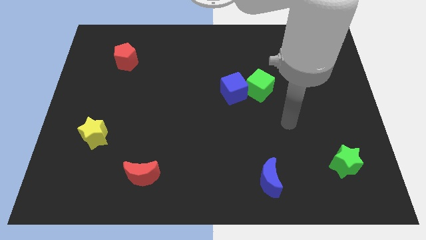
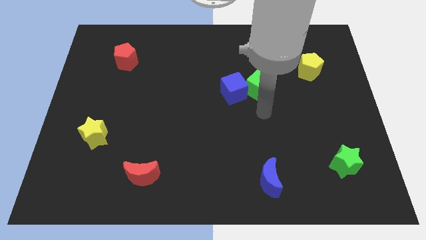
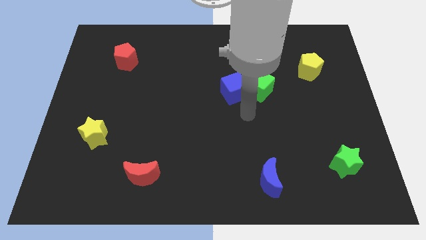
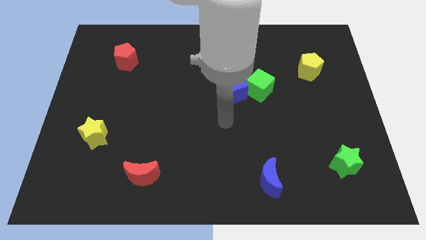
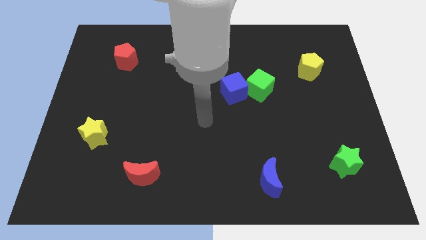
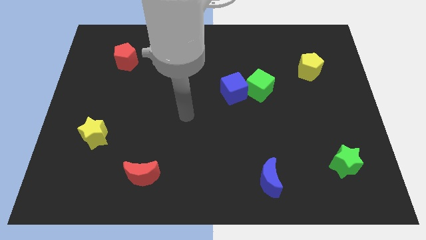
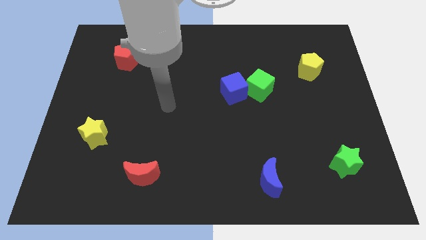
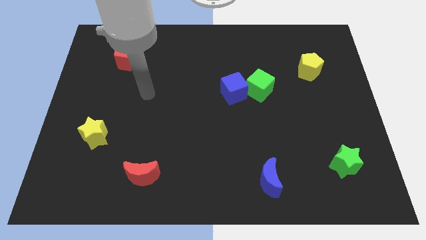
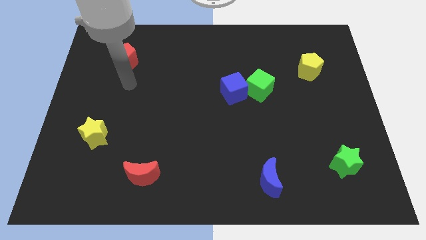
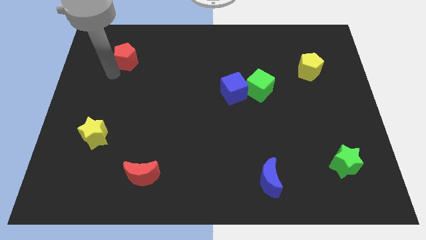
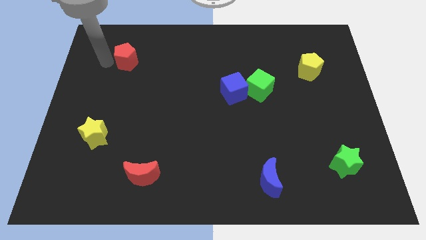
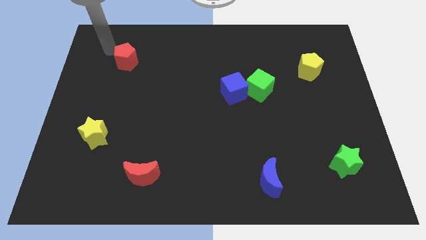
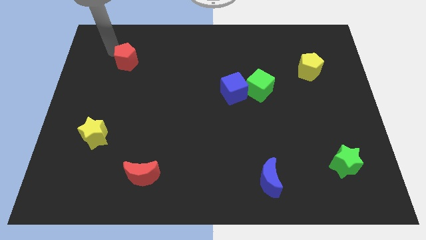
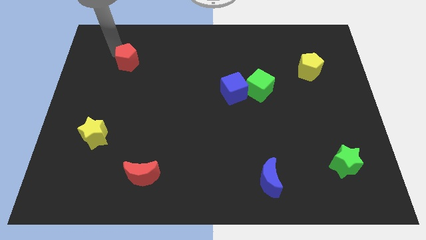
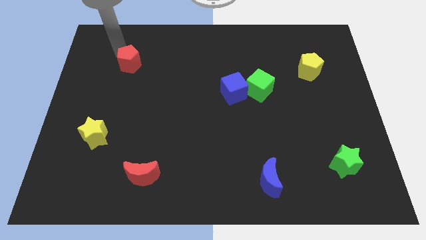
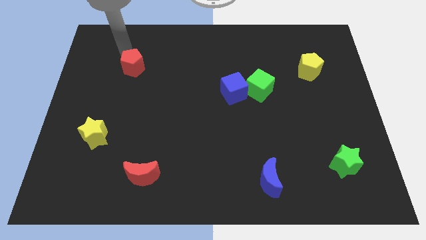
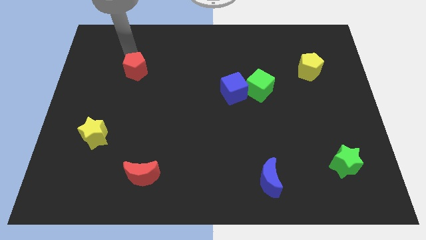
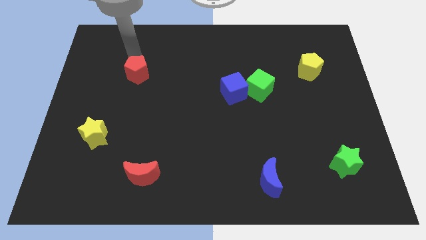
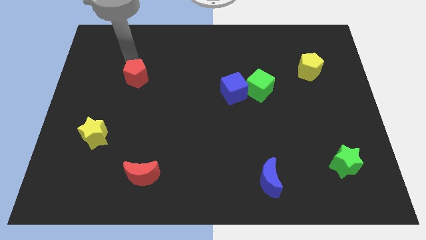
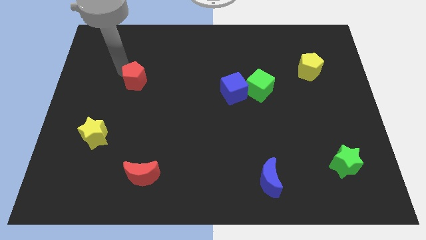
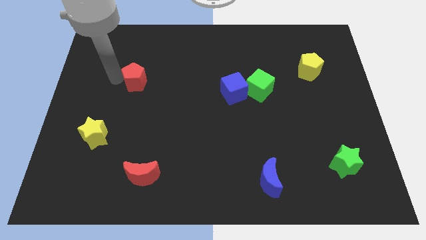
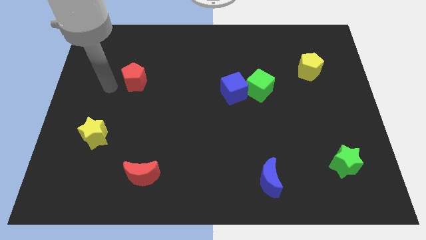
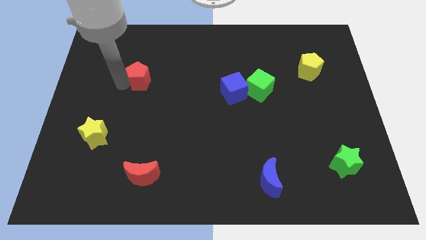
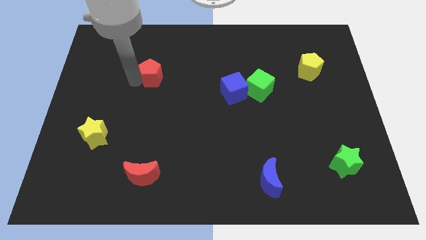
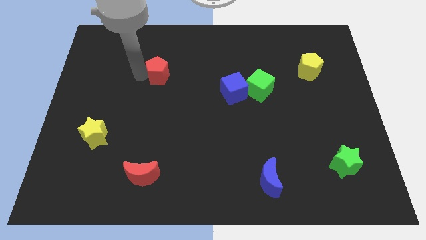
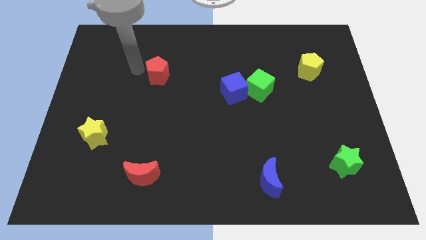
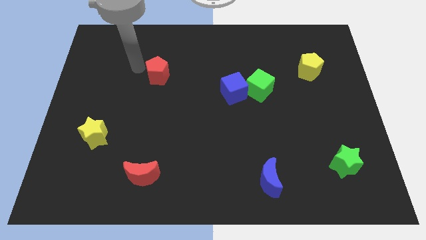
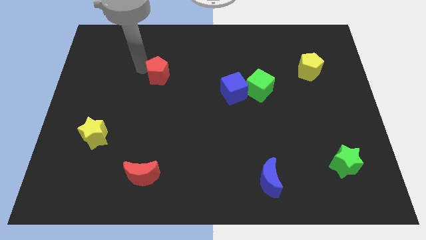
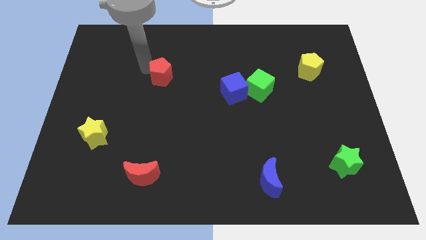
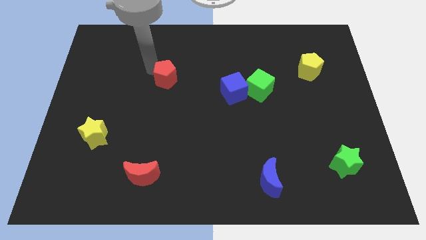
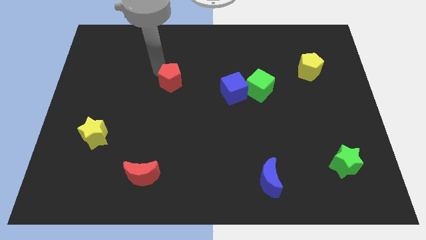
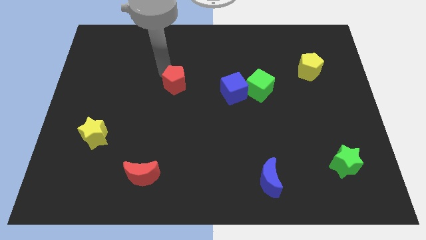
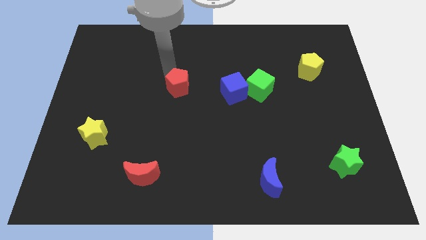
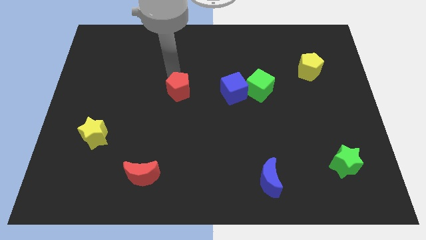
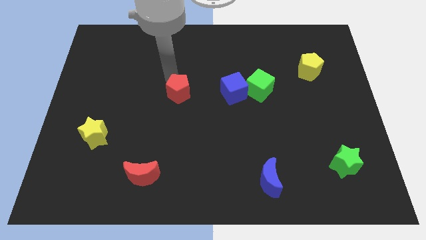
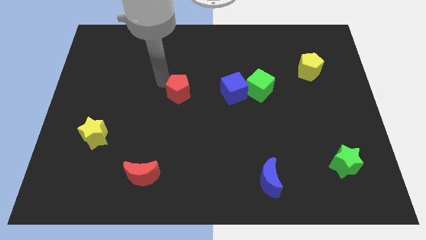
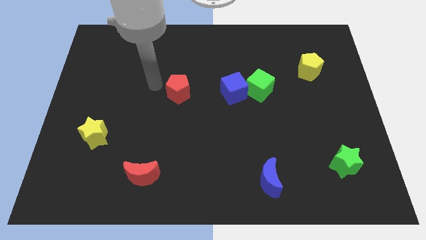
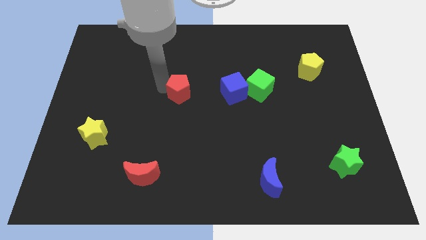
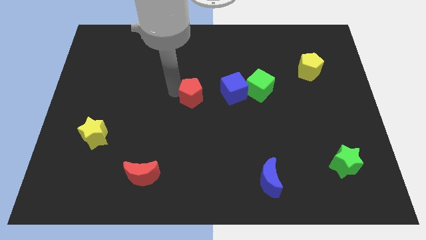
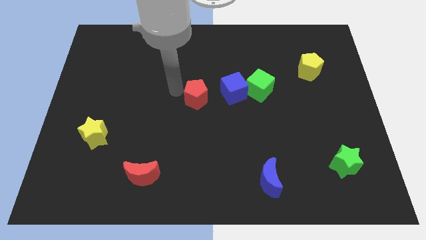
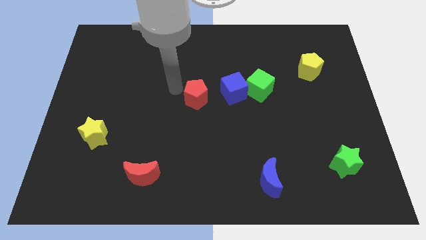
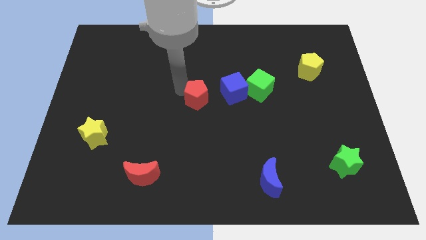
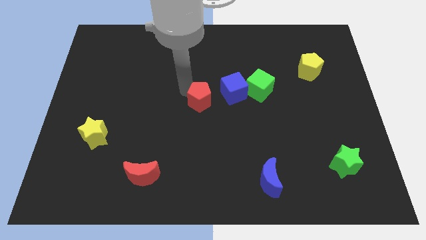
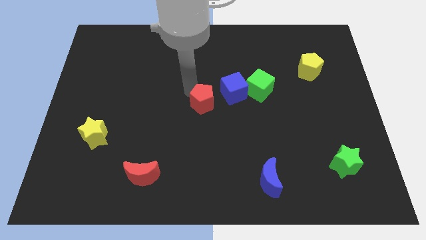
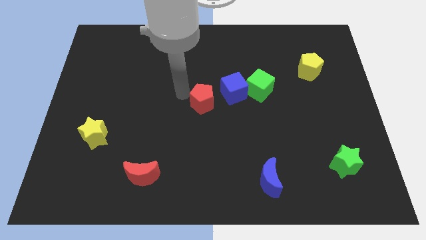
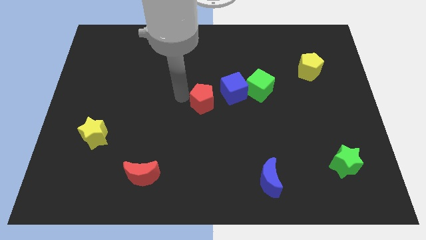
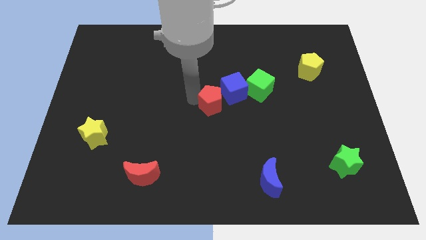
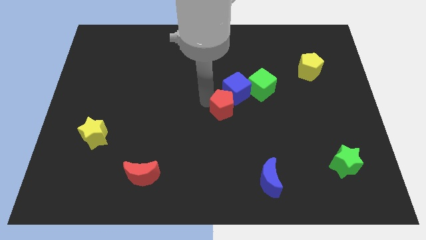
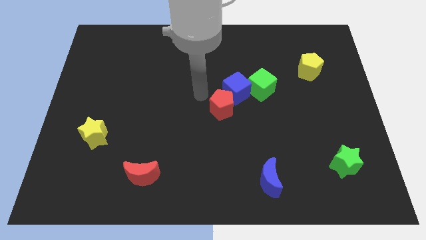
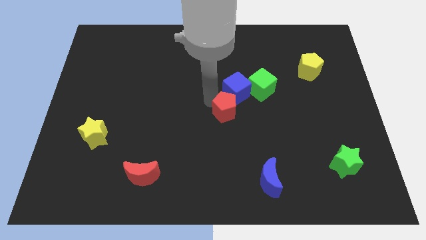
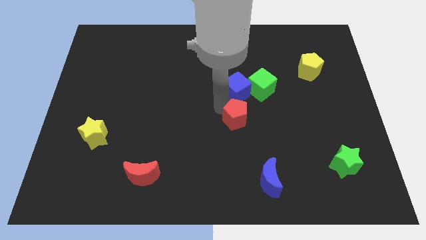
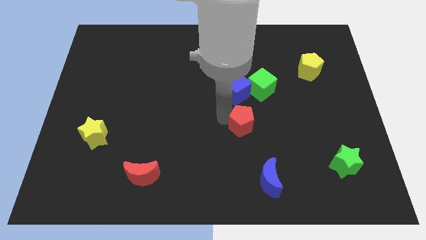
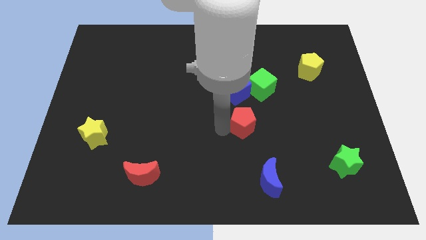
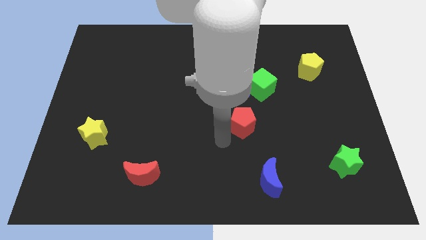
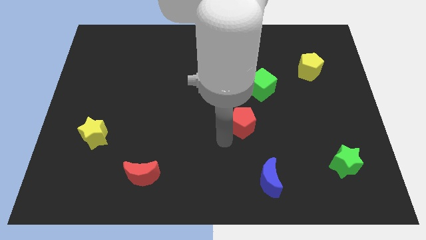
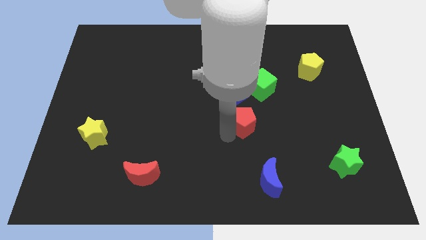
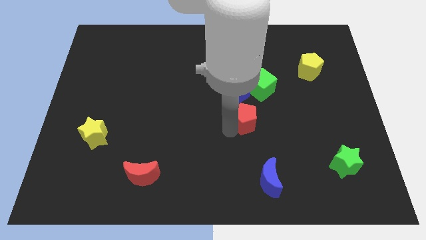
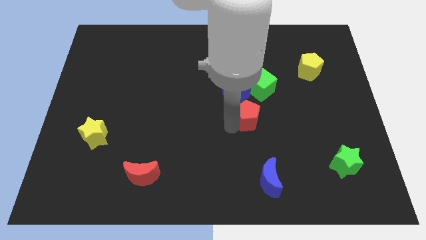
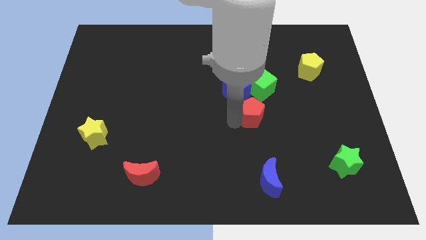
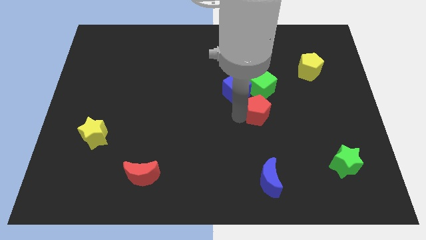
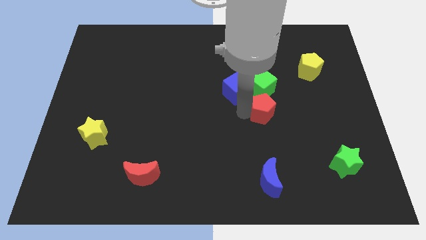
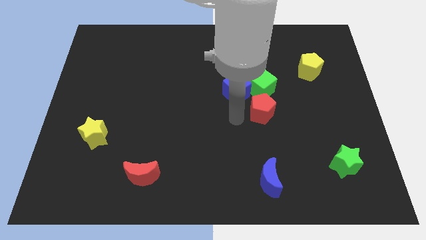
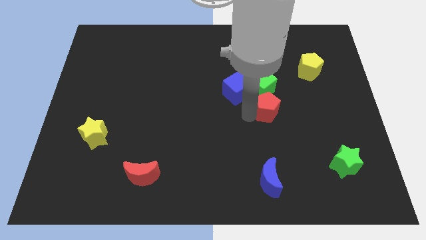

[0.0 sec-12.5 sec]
put the red pentagon to the bottom right of the green cube

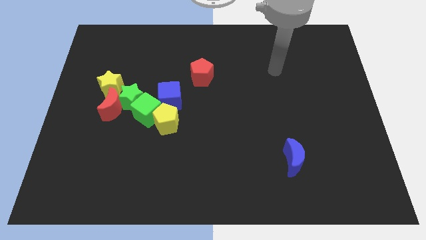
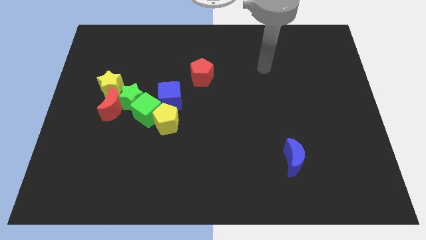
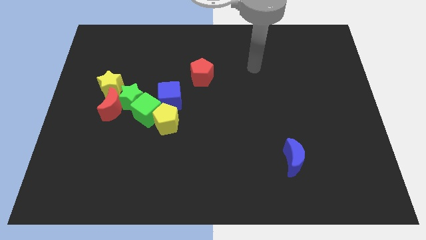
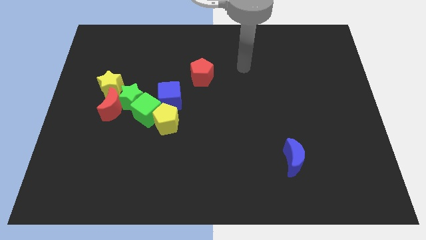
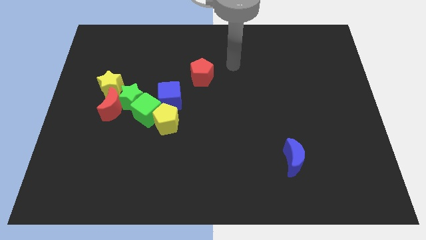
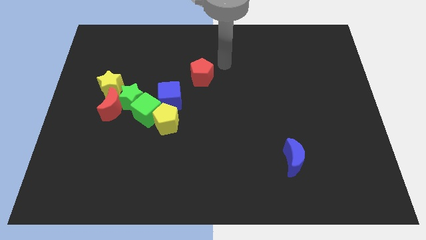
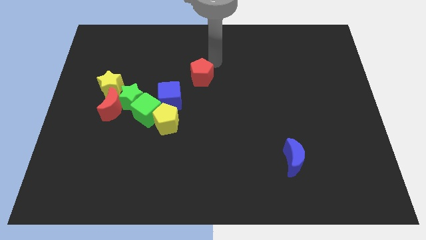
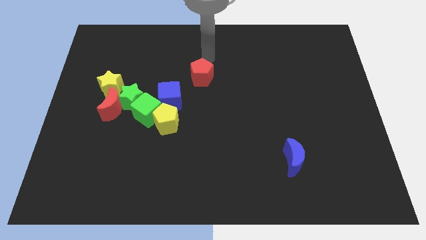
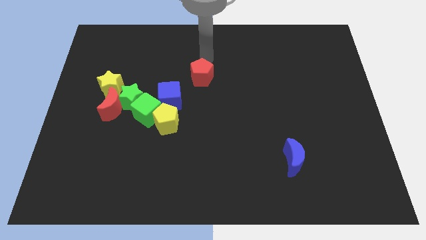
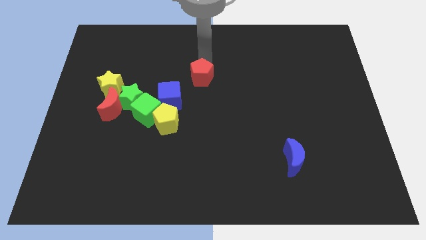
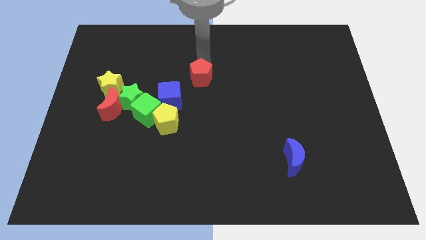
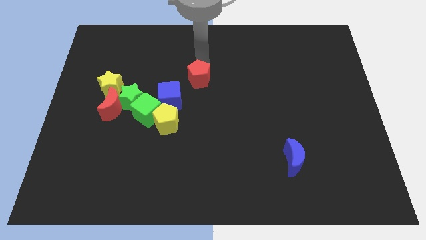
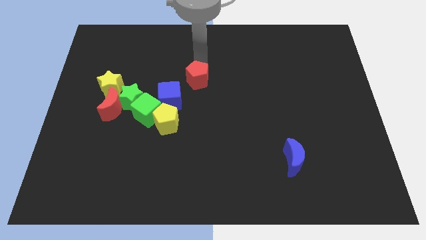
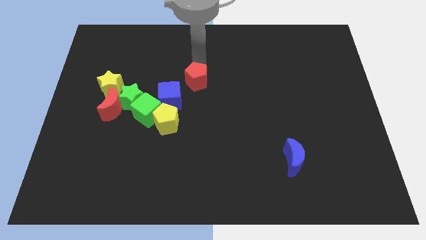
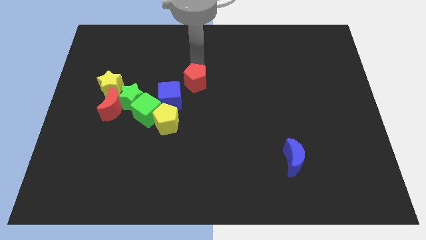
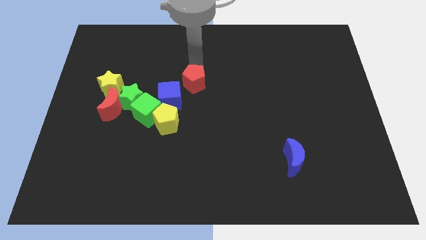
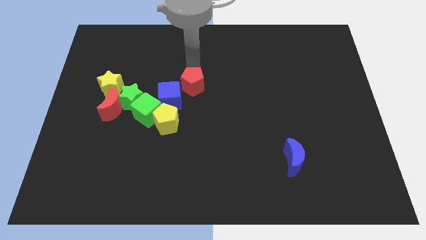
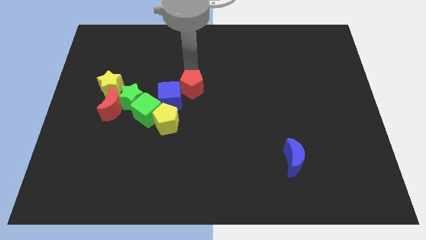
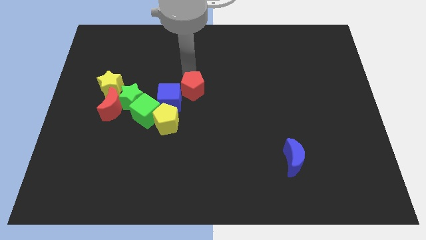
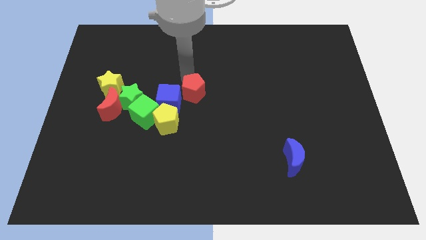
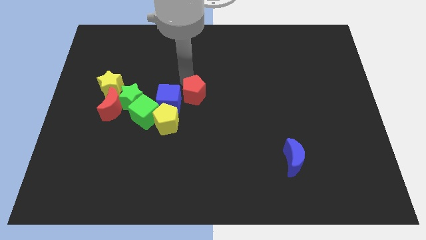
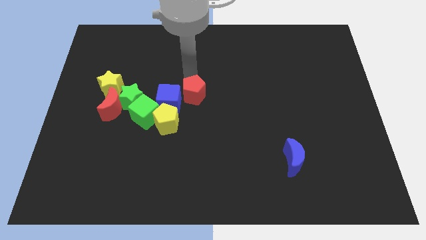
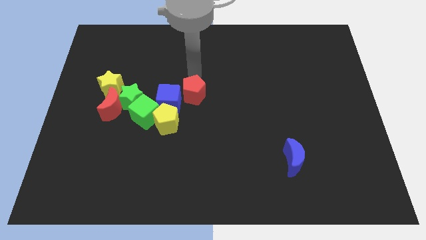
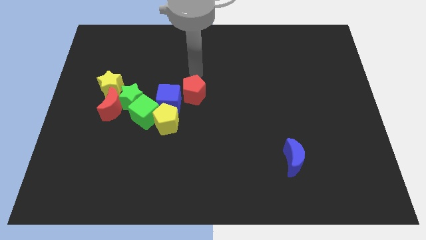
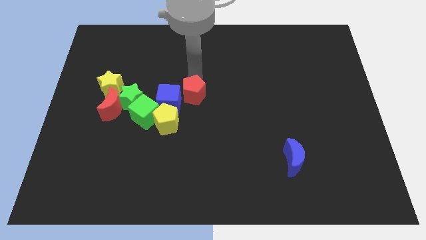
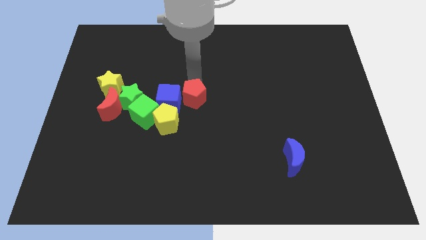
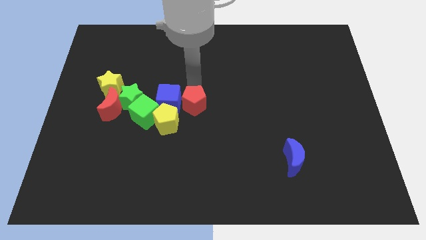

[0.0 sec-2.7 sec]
slide the red pentagon to the right side of the green cube
